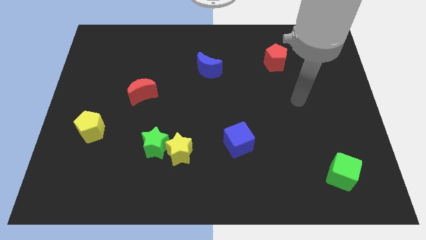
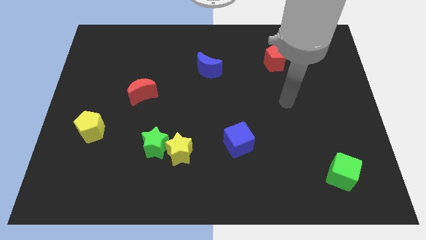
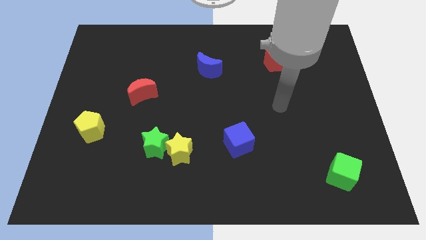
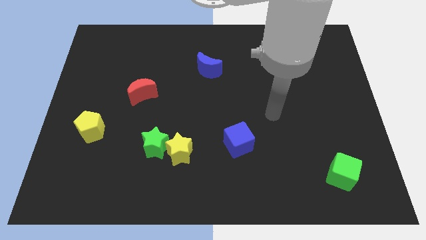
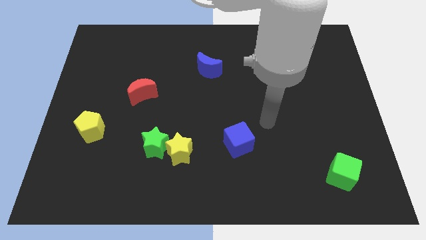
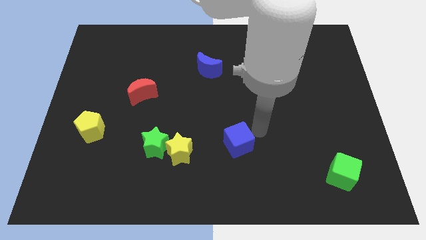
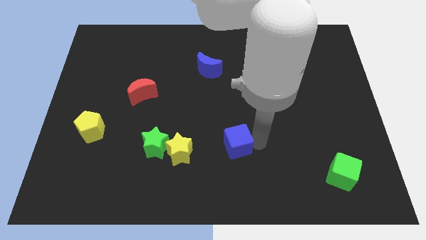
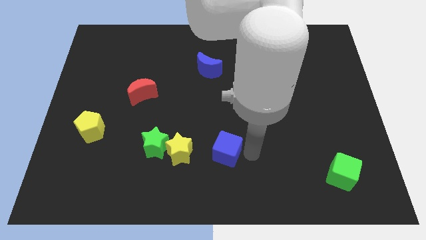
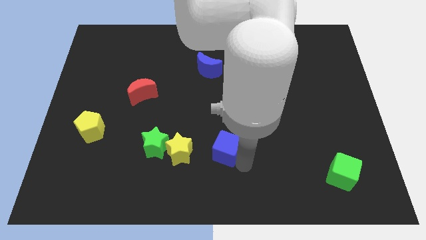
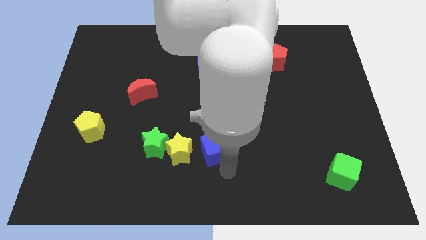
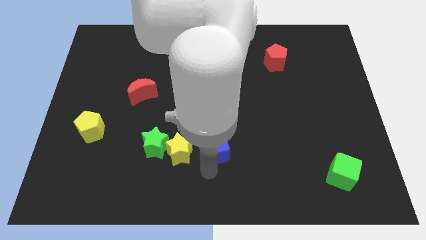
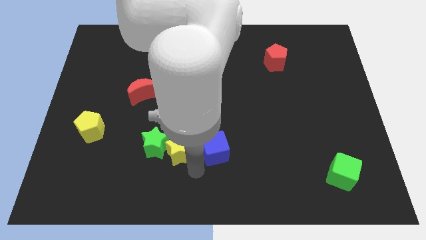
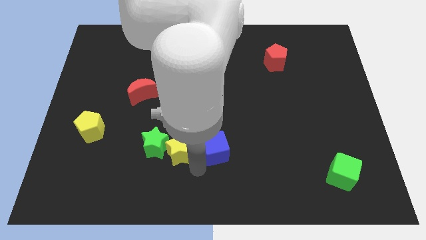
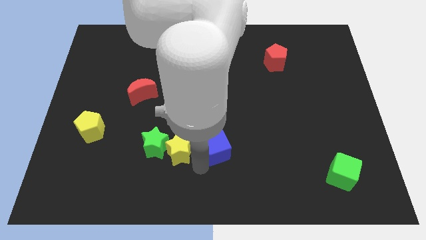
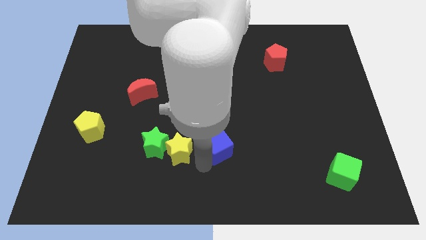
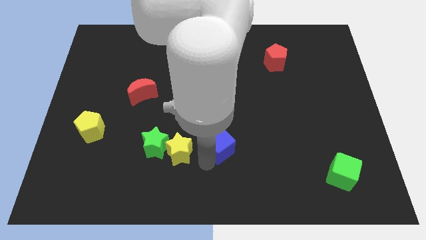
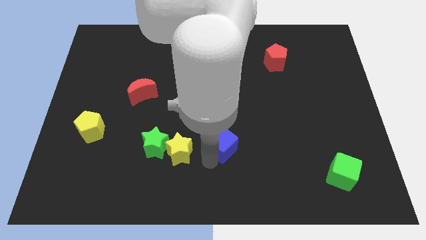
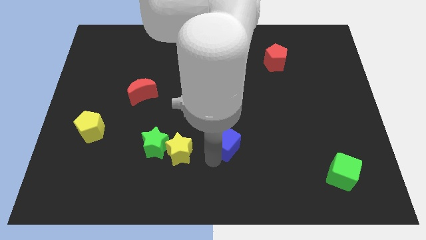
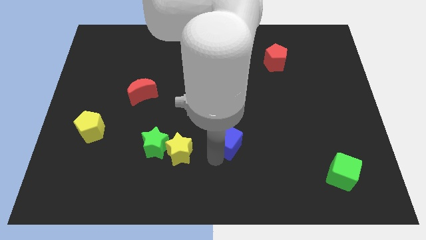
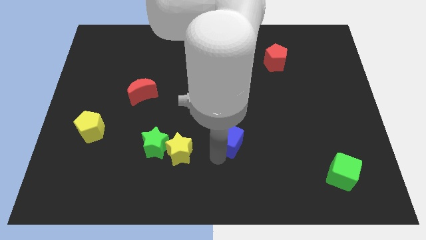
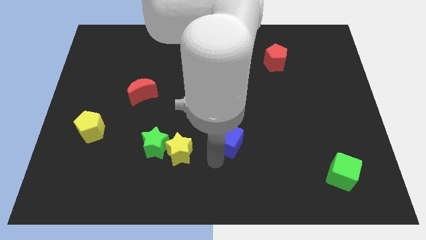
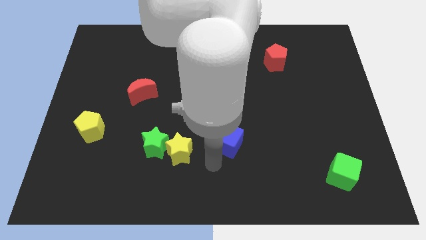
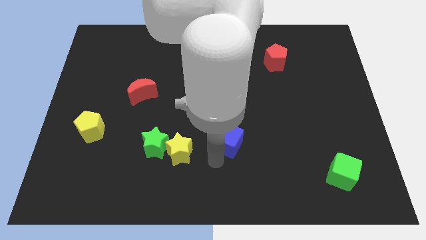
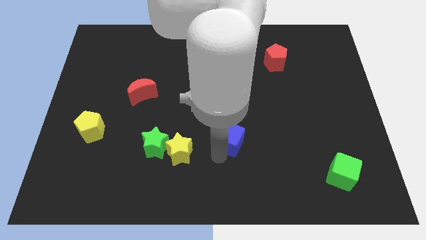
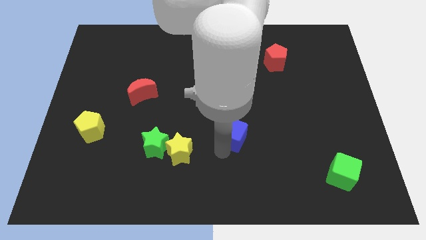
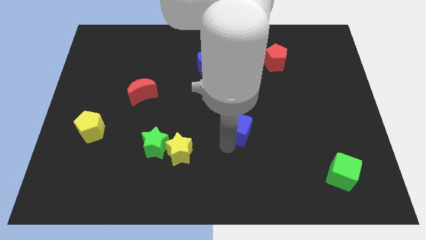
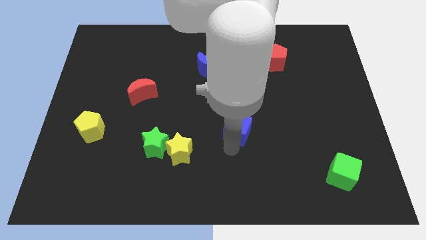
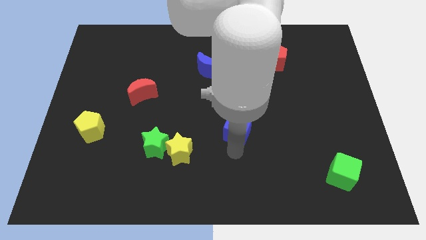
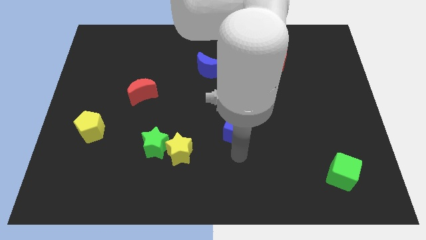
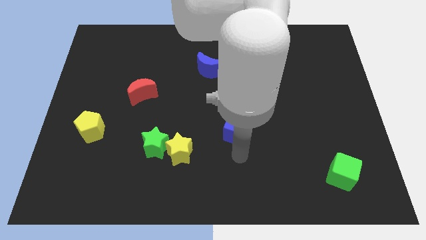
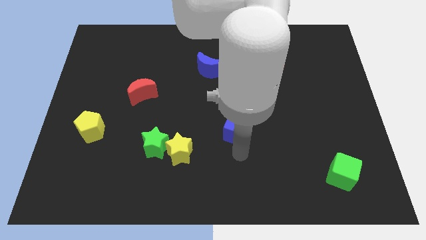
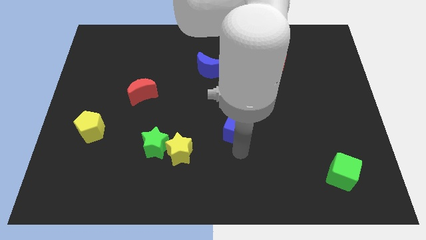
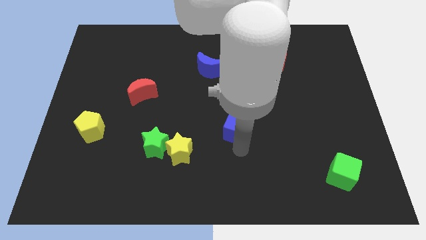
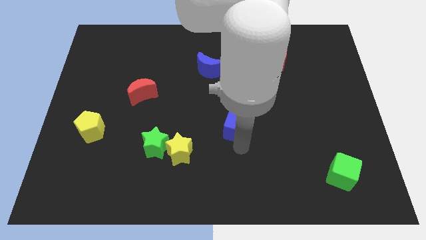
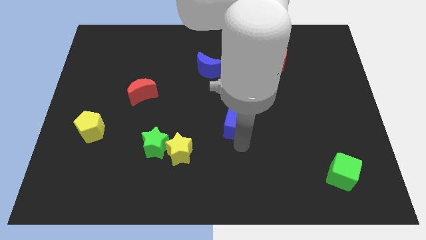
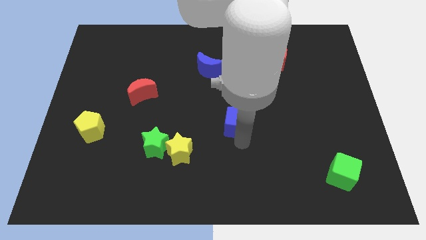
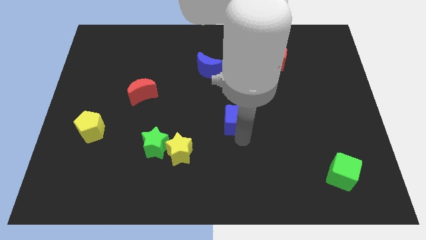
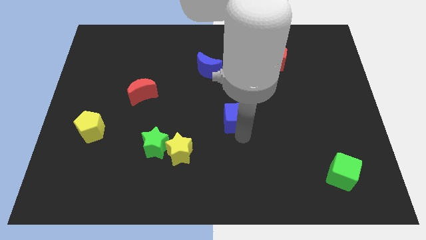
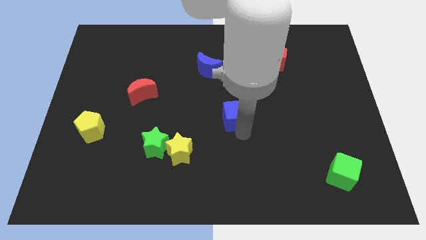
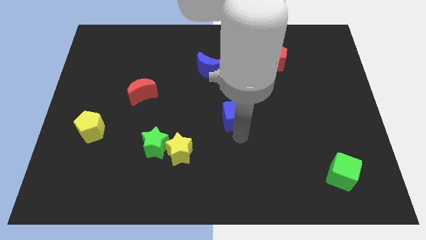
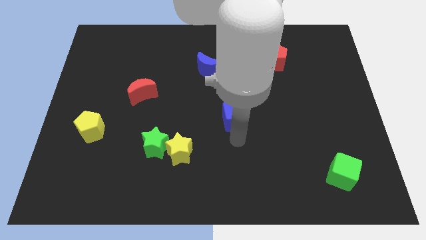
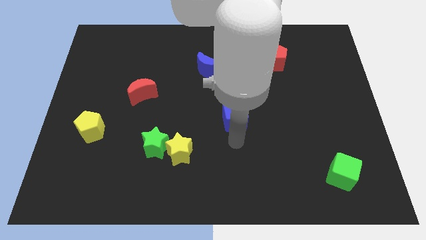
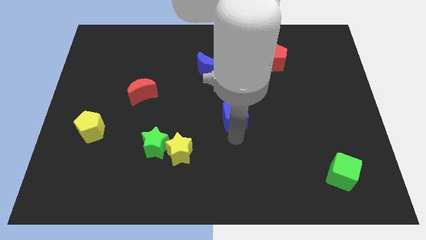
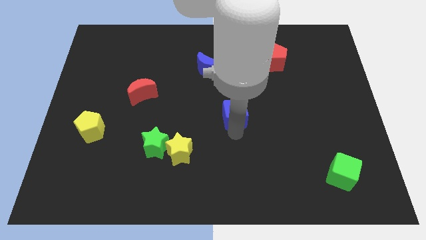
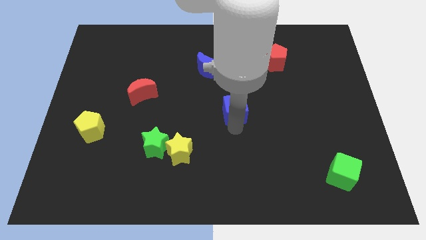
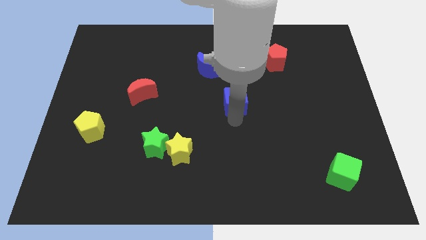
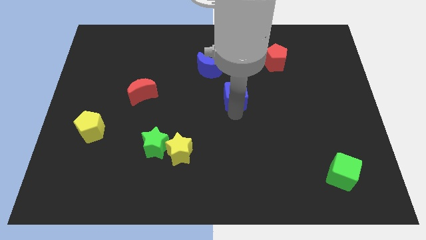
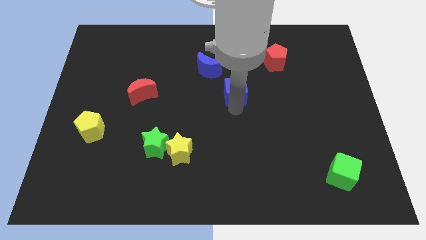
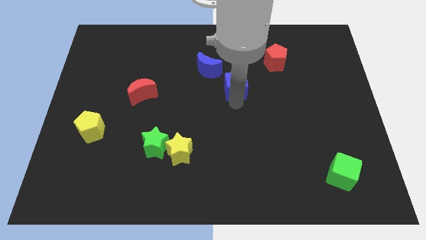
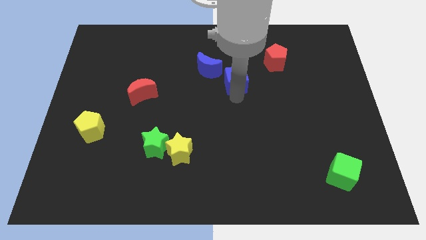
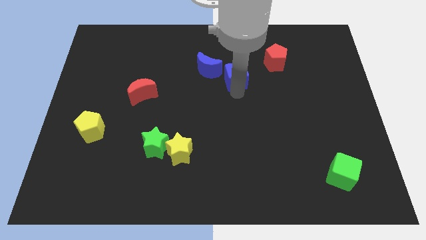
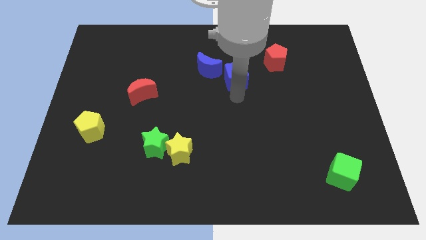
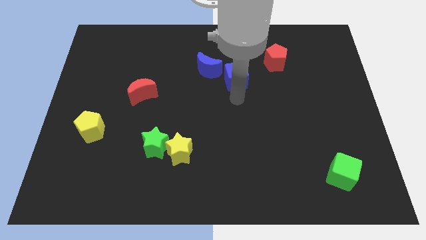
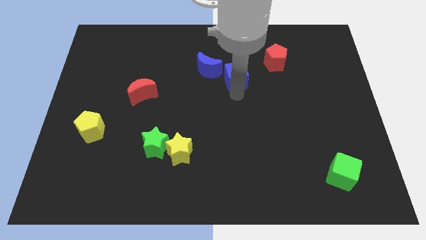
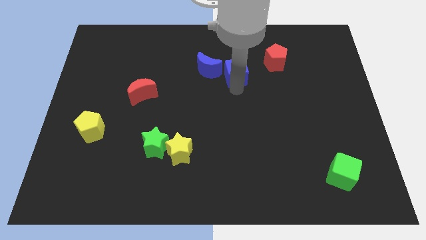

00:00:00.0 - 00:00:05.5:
push the blue cube just left of the red pentagon

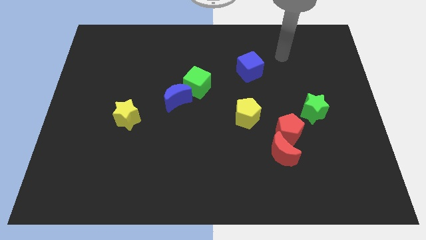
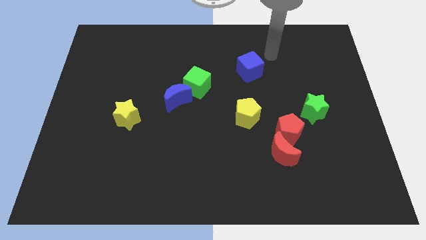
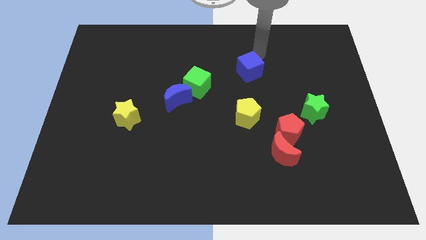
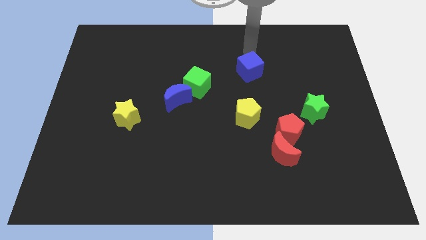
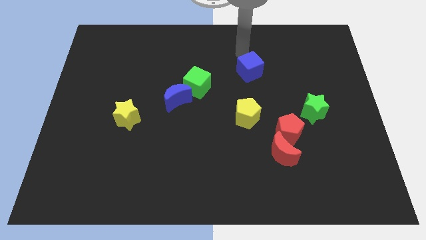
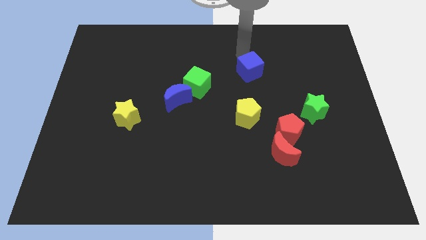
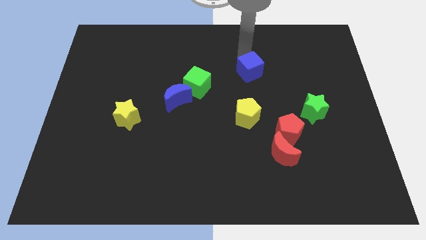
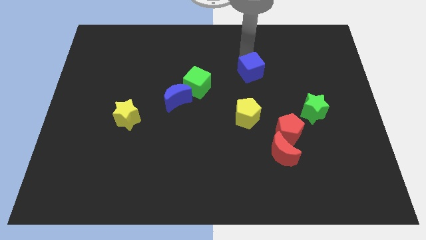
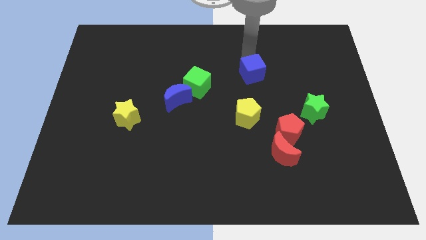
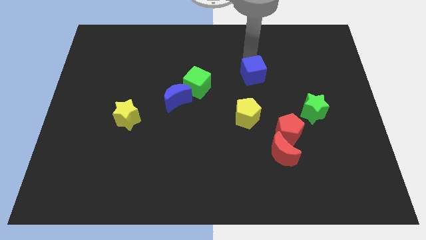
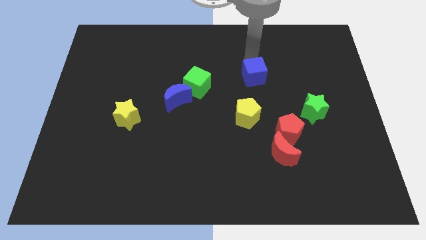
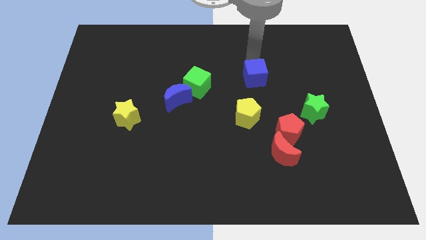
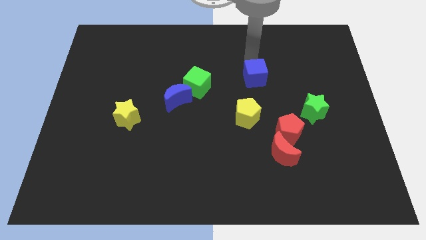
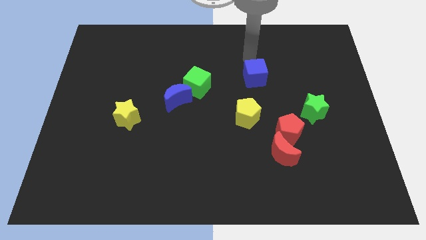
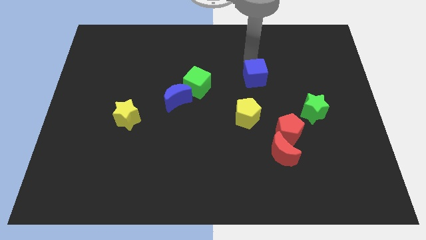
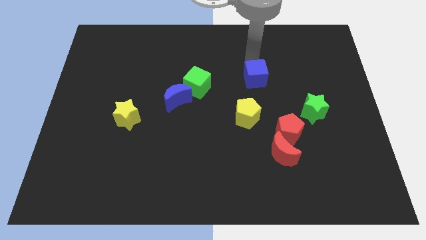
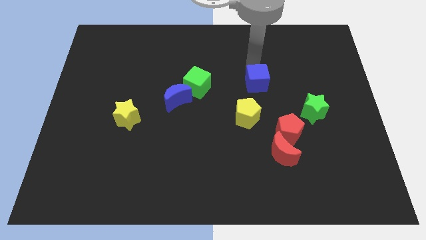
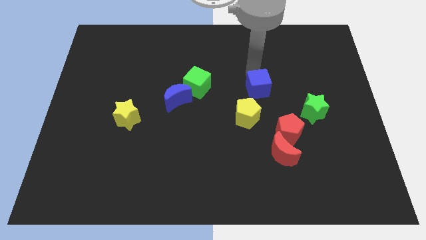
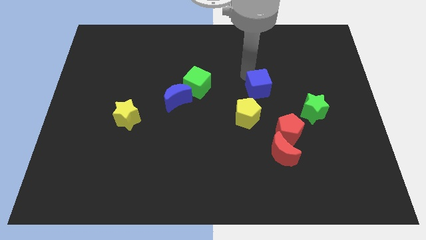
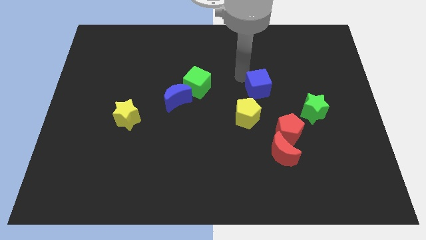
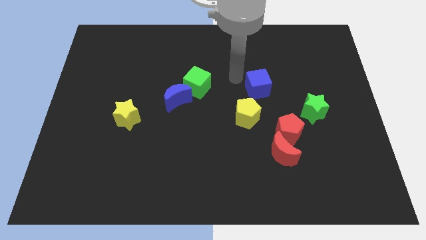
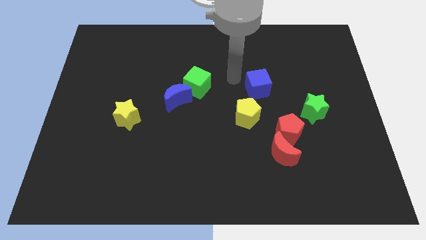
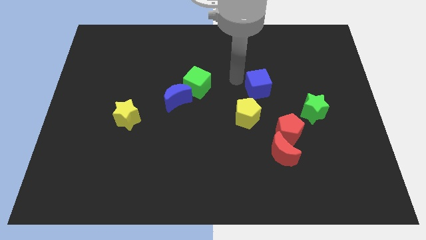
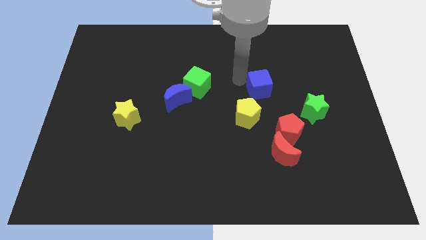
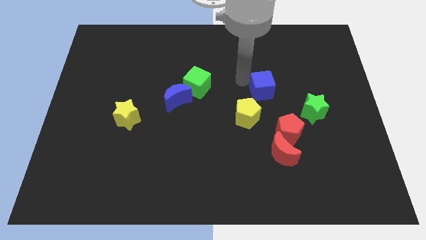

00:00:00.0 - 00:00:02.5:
move the blue cube to the top of the red pentagon
